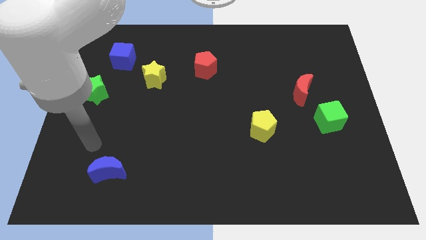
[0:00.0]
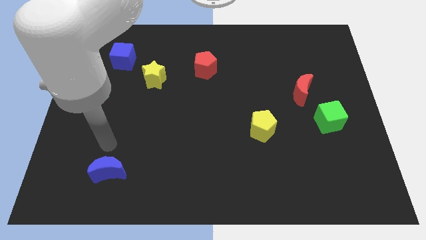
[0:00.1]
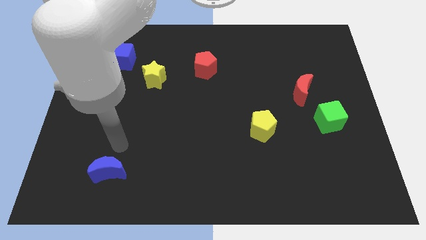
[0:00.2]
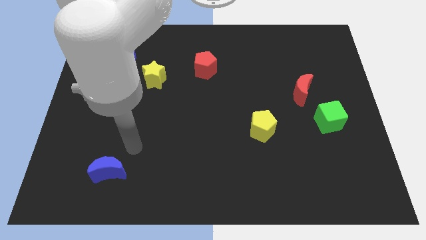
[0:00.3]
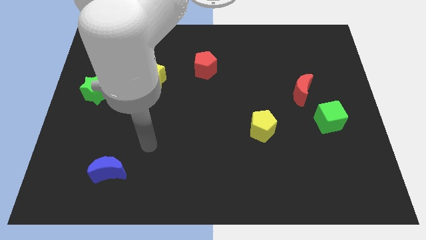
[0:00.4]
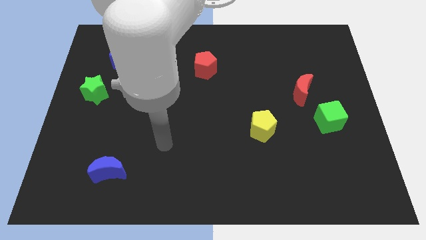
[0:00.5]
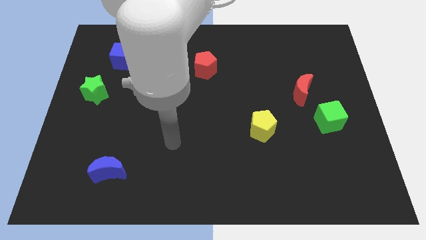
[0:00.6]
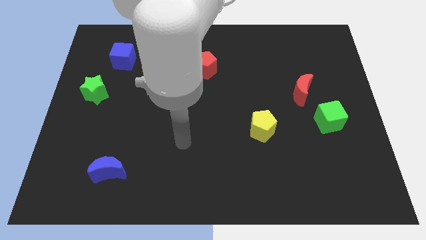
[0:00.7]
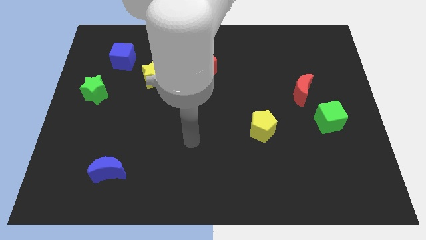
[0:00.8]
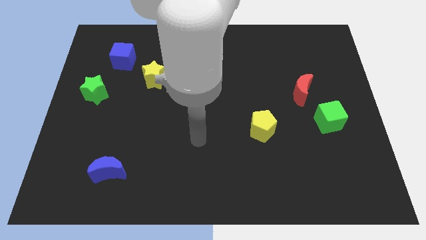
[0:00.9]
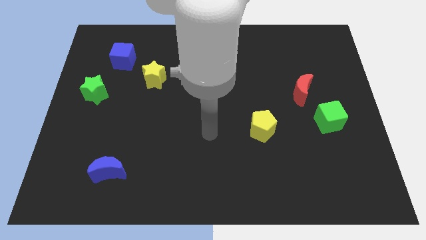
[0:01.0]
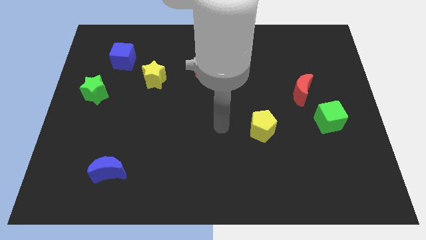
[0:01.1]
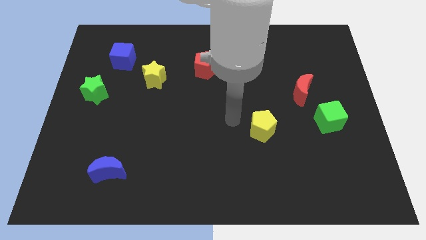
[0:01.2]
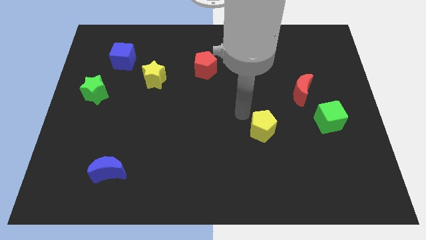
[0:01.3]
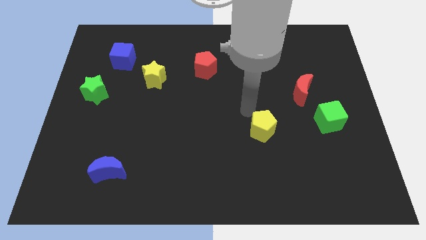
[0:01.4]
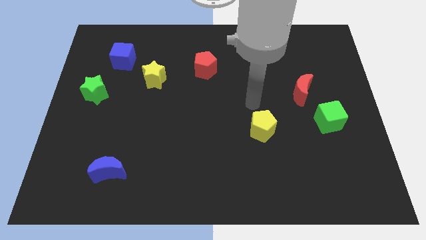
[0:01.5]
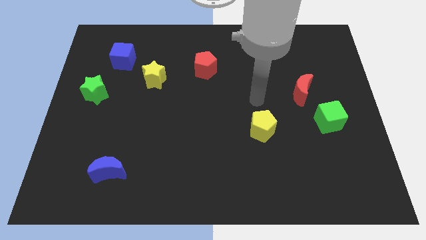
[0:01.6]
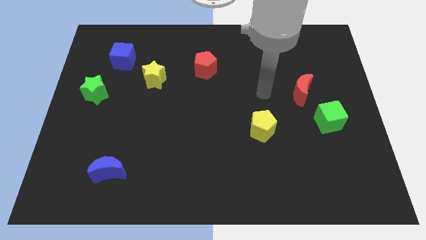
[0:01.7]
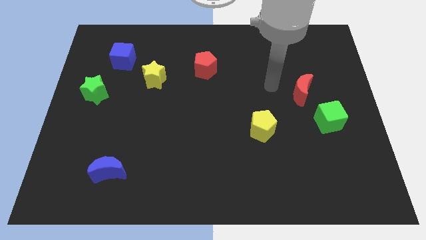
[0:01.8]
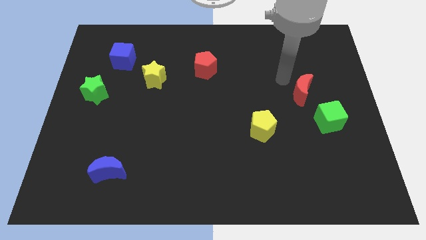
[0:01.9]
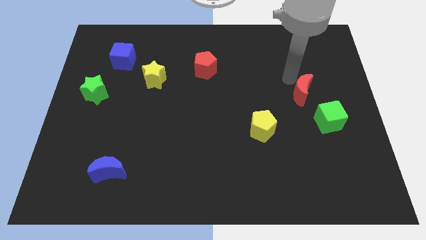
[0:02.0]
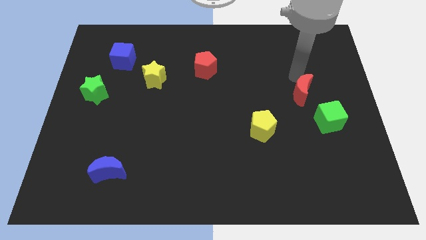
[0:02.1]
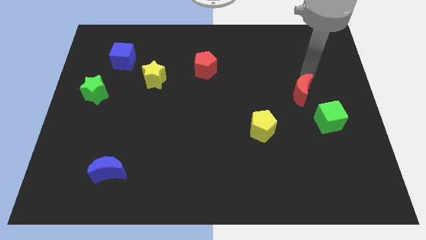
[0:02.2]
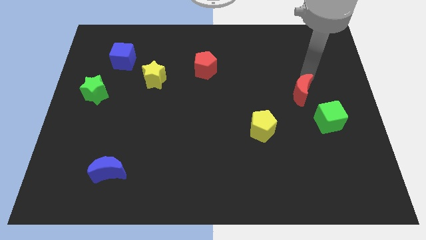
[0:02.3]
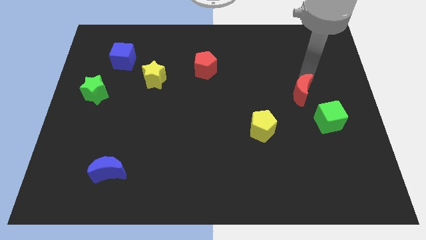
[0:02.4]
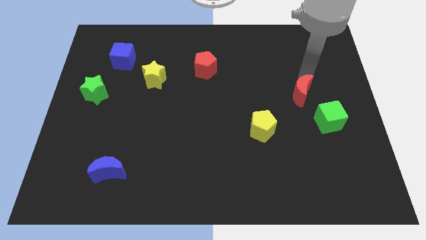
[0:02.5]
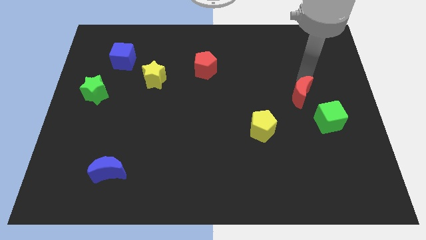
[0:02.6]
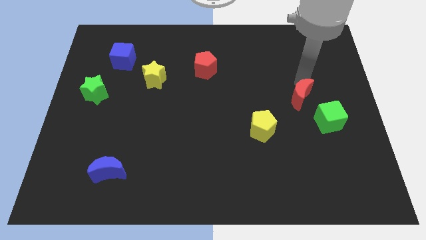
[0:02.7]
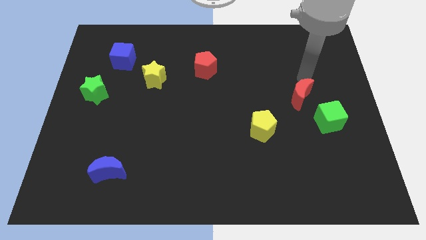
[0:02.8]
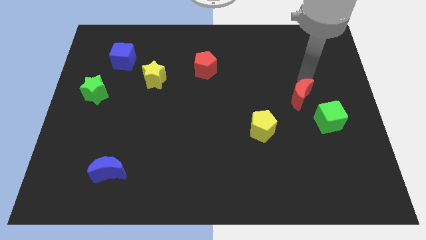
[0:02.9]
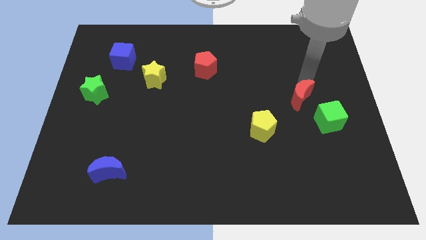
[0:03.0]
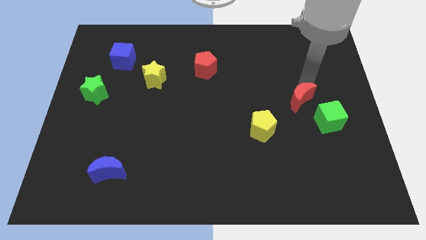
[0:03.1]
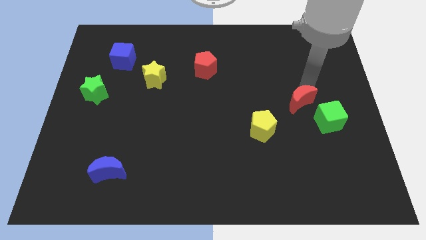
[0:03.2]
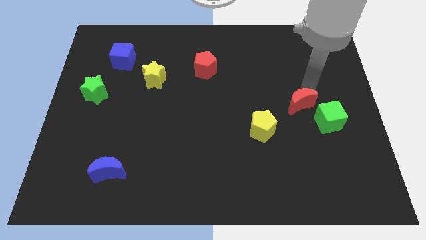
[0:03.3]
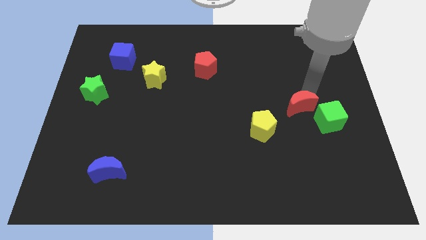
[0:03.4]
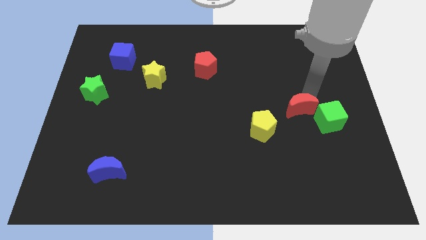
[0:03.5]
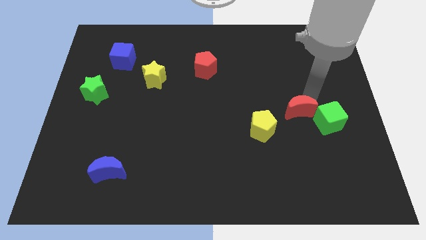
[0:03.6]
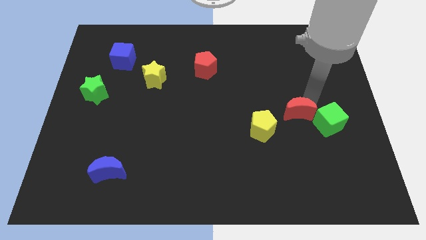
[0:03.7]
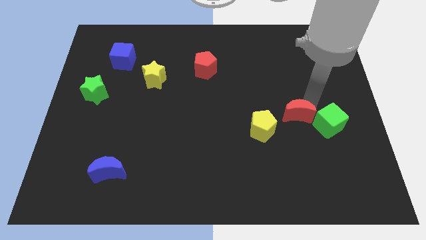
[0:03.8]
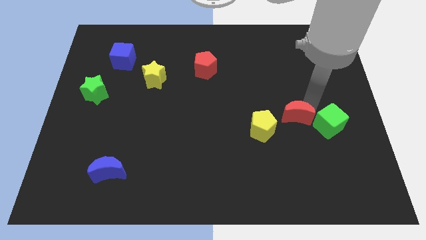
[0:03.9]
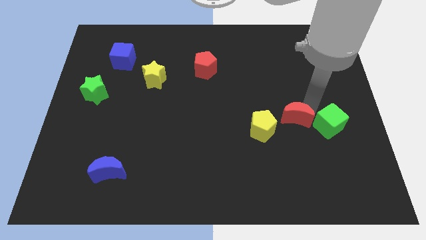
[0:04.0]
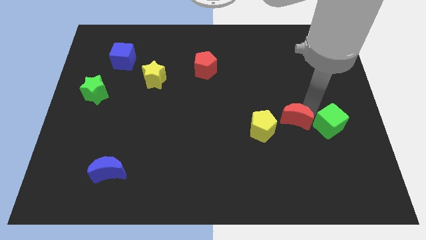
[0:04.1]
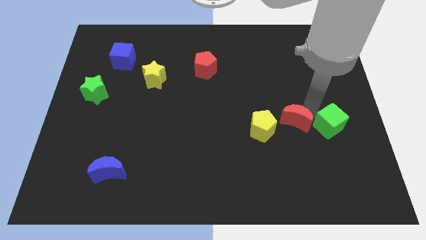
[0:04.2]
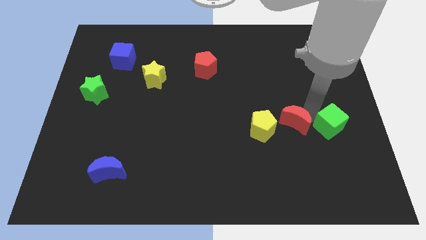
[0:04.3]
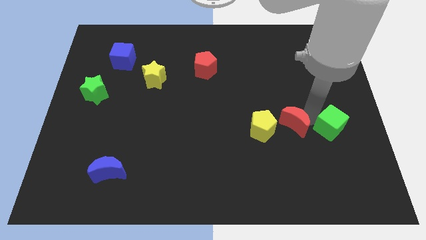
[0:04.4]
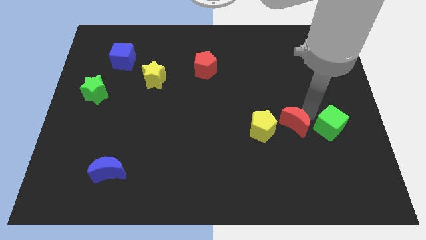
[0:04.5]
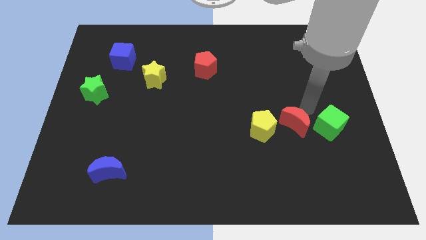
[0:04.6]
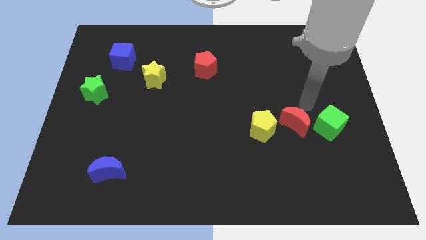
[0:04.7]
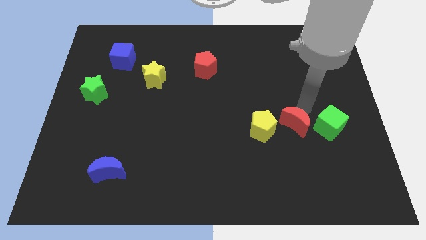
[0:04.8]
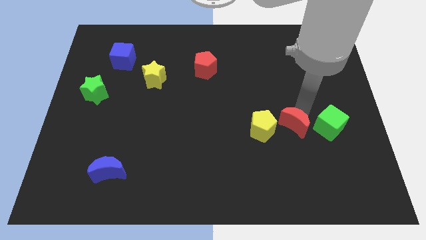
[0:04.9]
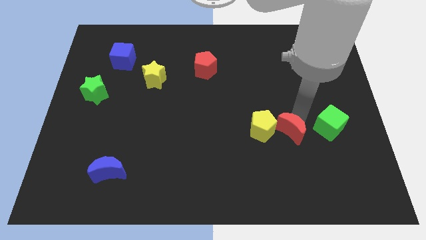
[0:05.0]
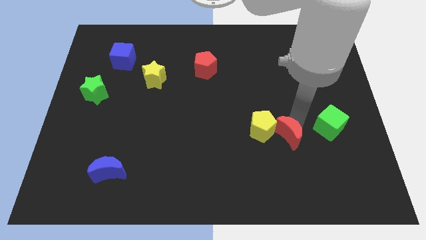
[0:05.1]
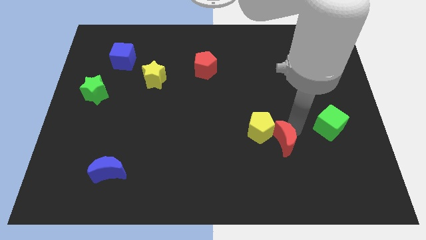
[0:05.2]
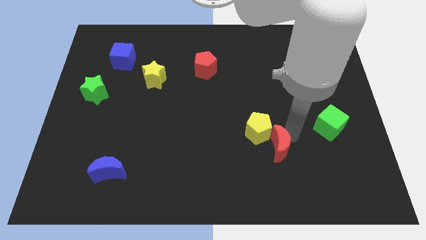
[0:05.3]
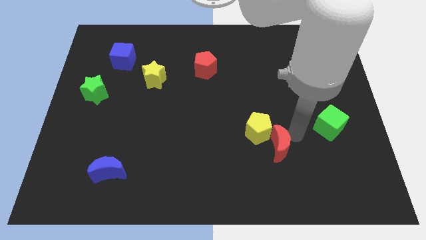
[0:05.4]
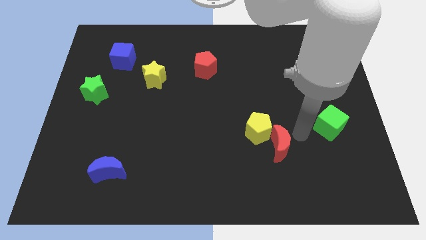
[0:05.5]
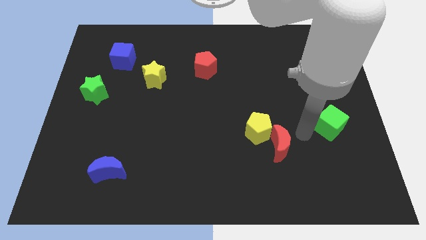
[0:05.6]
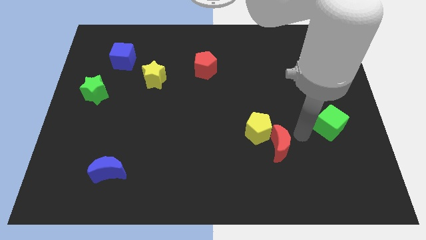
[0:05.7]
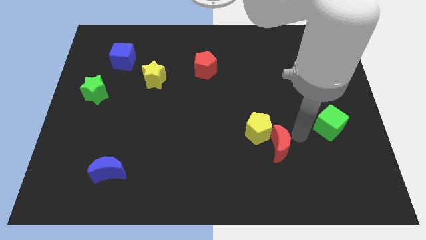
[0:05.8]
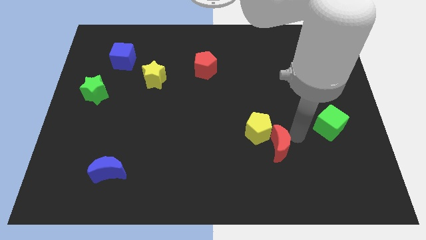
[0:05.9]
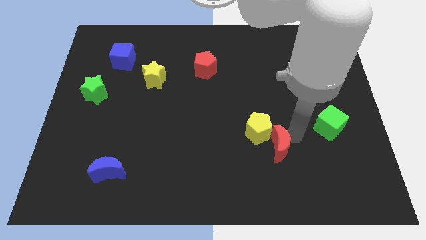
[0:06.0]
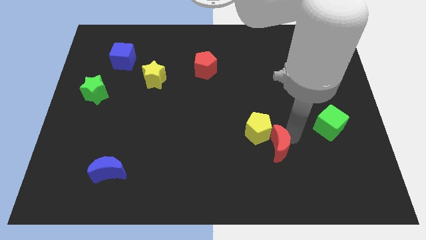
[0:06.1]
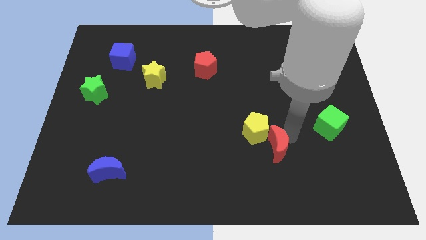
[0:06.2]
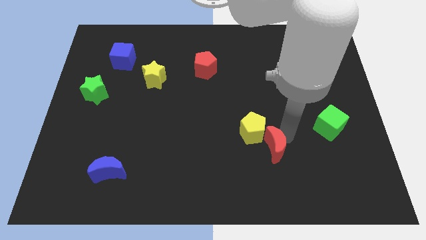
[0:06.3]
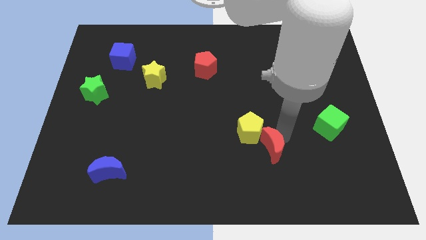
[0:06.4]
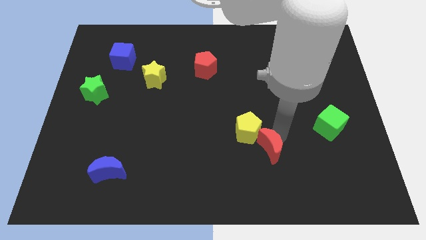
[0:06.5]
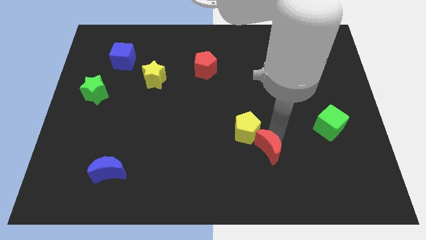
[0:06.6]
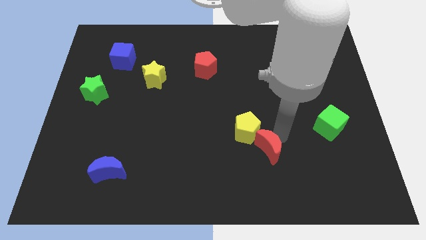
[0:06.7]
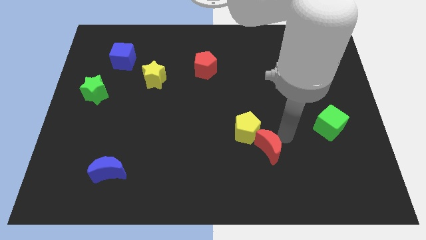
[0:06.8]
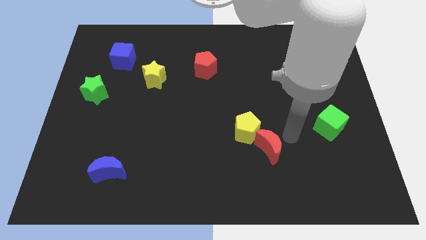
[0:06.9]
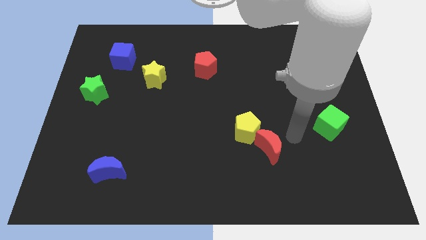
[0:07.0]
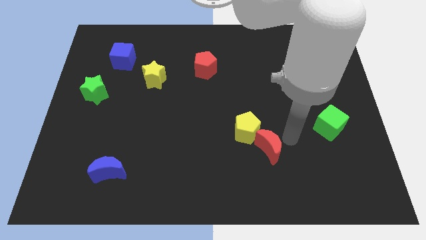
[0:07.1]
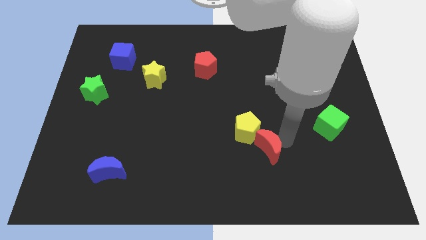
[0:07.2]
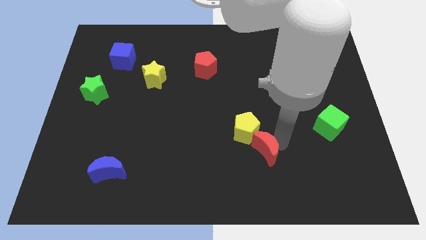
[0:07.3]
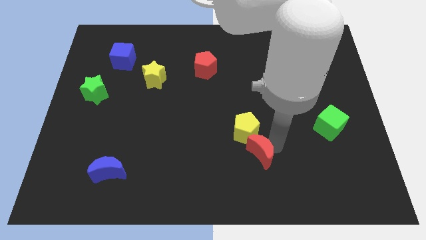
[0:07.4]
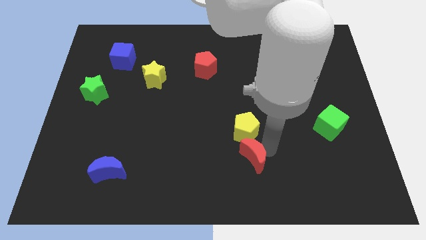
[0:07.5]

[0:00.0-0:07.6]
slide the red moon downwards and to the left diagonally

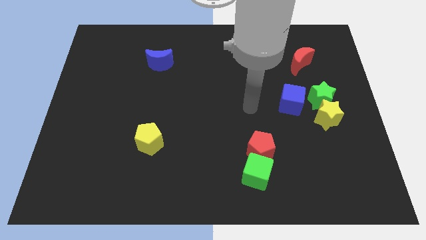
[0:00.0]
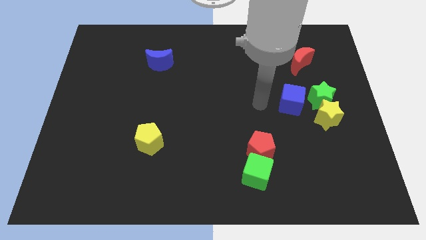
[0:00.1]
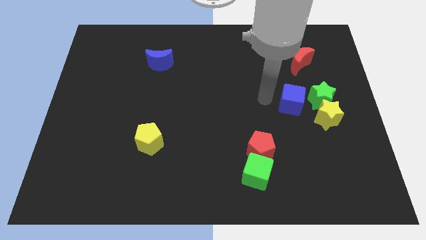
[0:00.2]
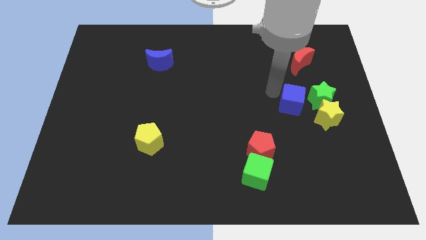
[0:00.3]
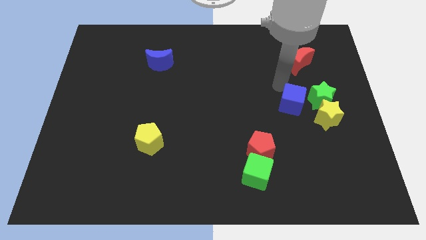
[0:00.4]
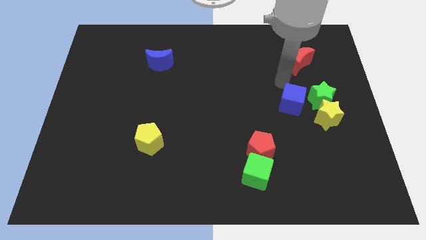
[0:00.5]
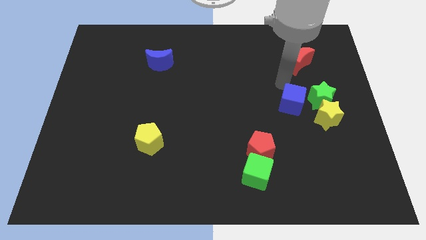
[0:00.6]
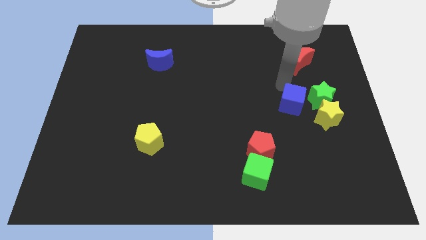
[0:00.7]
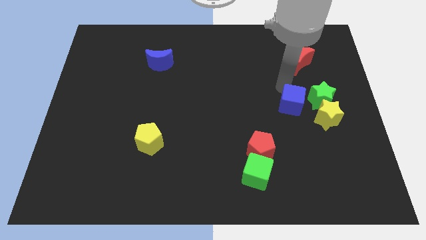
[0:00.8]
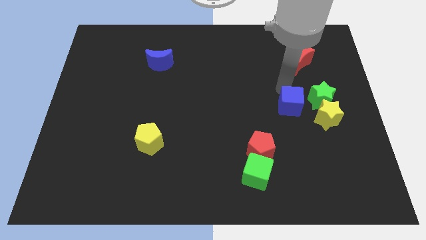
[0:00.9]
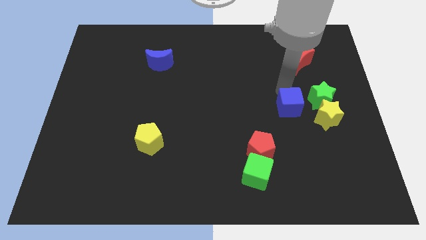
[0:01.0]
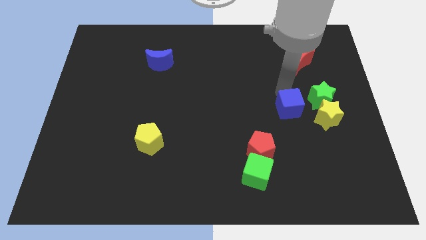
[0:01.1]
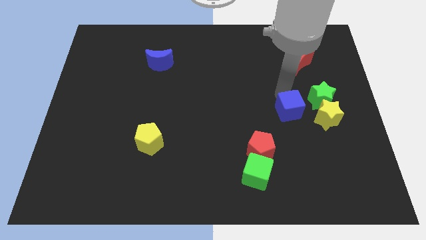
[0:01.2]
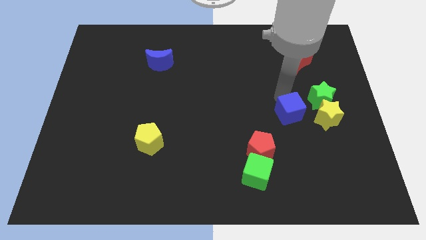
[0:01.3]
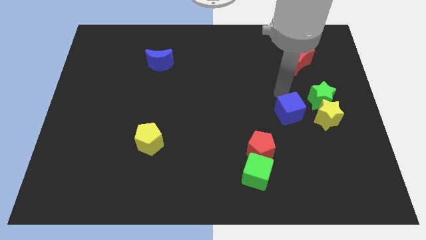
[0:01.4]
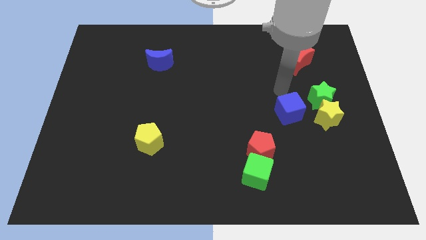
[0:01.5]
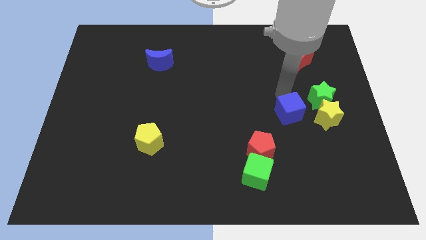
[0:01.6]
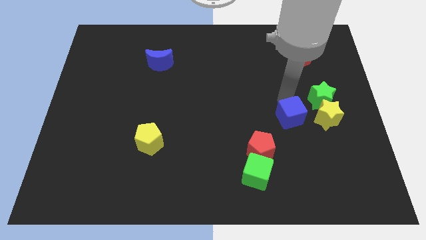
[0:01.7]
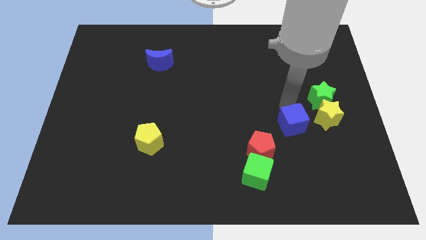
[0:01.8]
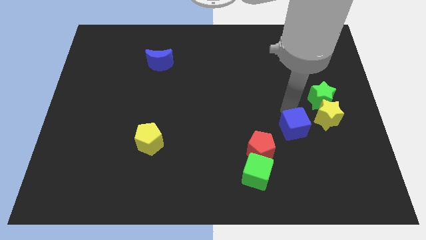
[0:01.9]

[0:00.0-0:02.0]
slightly move the blue cube down
